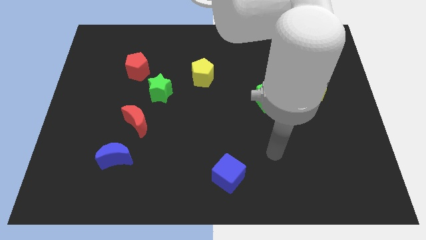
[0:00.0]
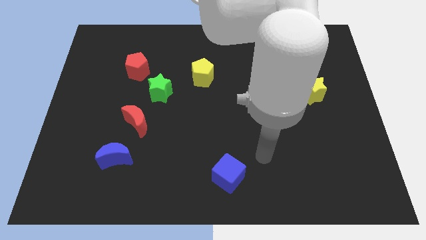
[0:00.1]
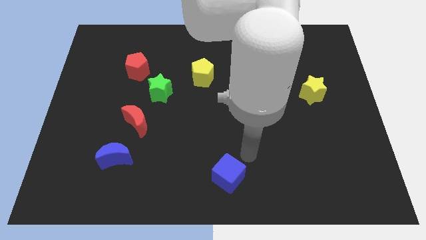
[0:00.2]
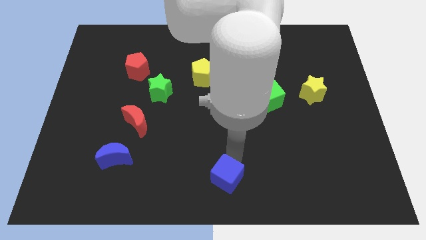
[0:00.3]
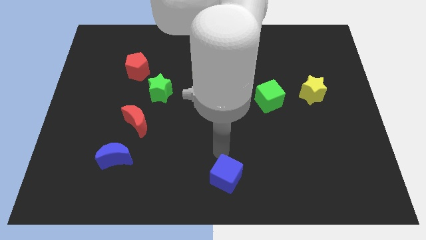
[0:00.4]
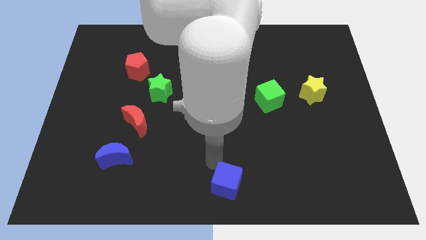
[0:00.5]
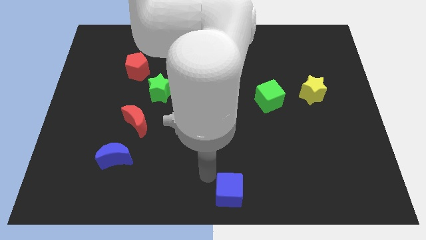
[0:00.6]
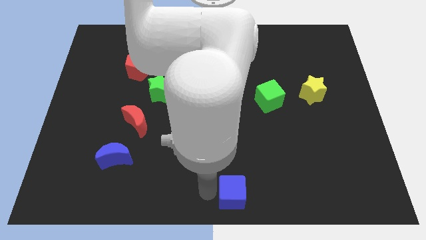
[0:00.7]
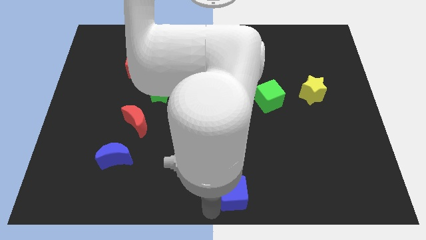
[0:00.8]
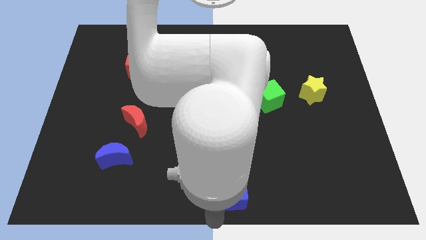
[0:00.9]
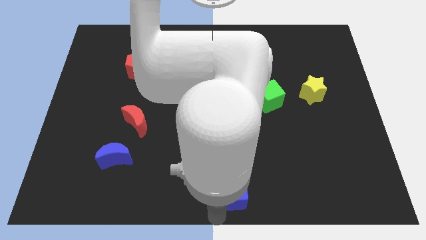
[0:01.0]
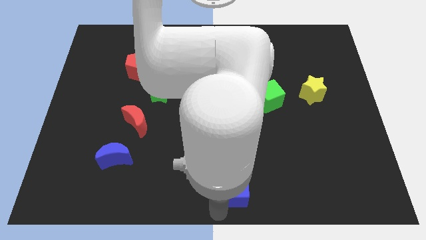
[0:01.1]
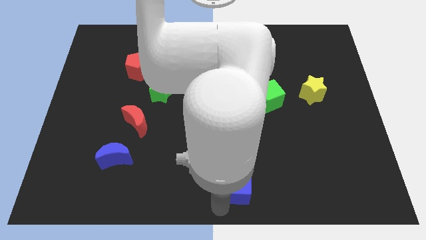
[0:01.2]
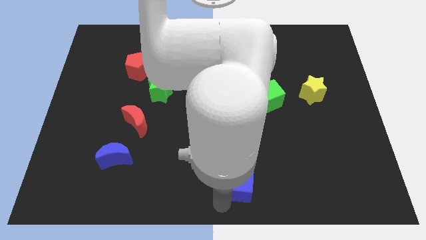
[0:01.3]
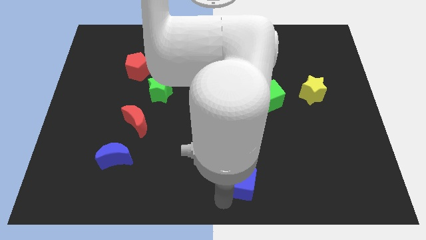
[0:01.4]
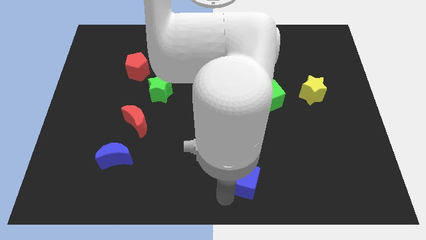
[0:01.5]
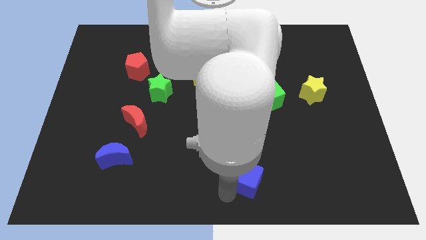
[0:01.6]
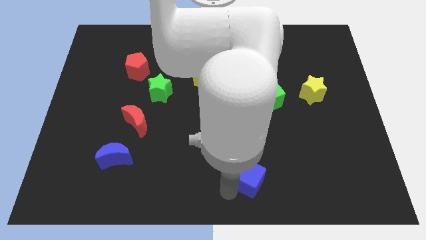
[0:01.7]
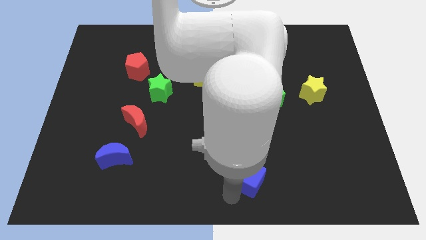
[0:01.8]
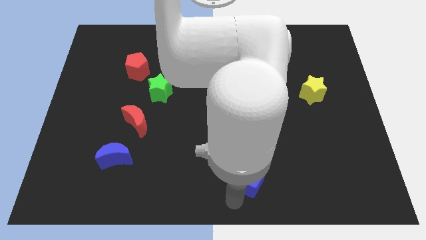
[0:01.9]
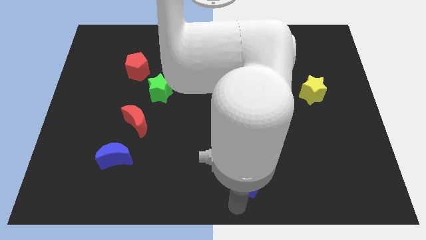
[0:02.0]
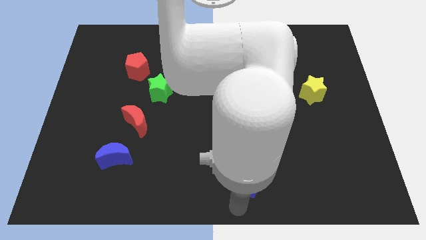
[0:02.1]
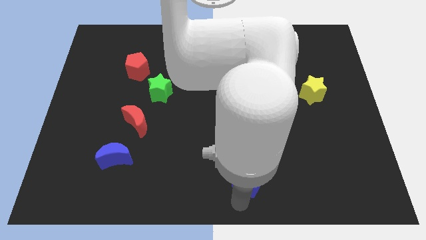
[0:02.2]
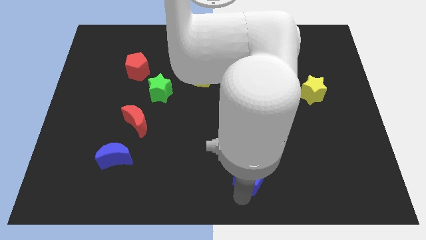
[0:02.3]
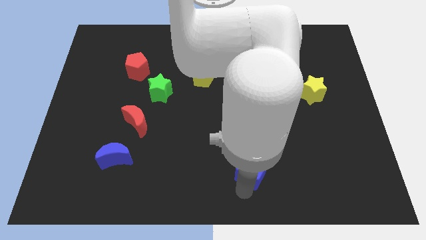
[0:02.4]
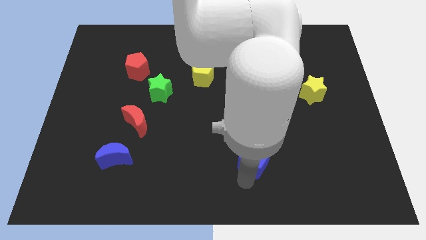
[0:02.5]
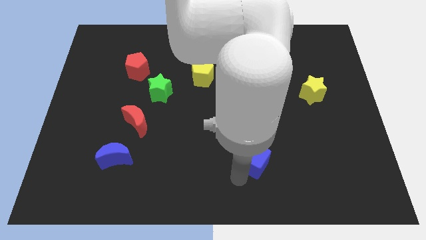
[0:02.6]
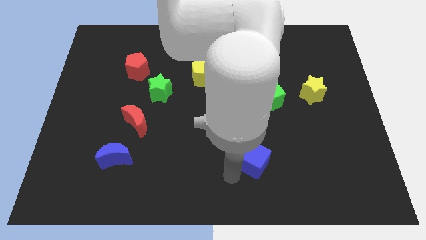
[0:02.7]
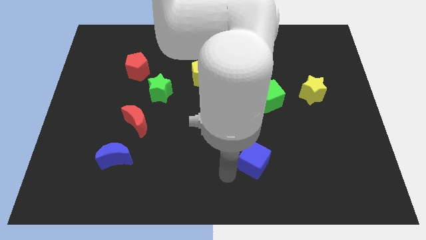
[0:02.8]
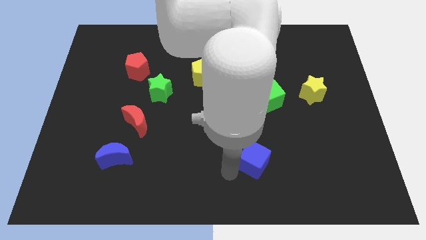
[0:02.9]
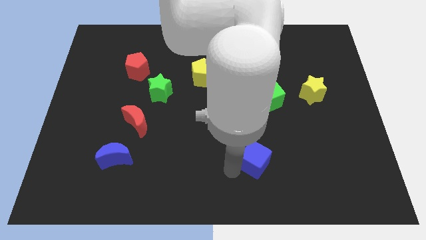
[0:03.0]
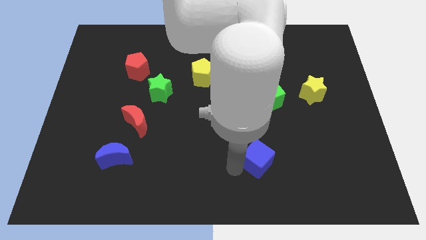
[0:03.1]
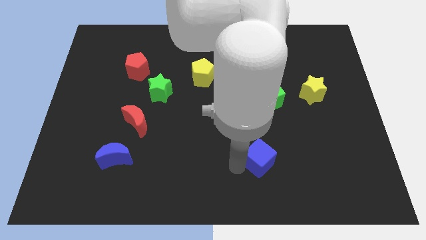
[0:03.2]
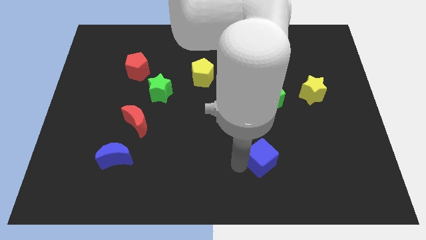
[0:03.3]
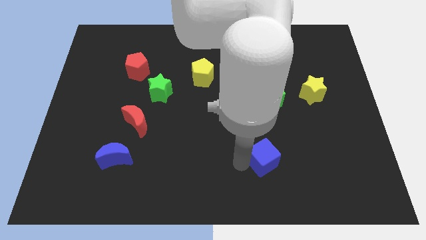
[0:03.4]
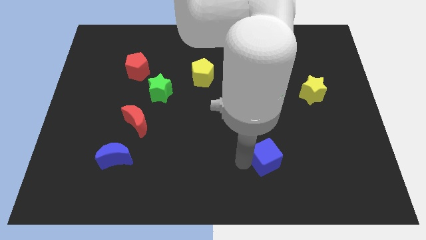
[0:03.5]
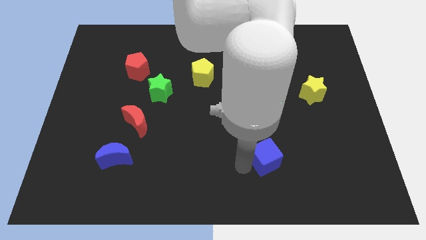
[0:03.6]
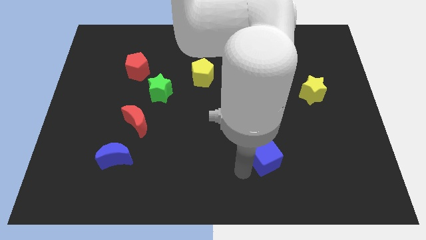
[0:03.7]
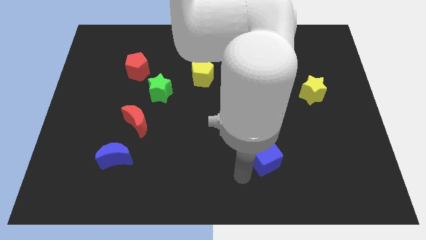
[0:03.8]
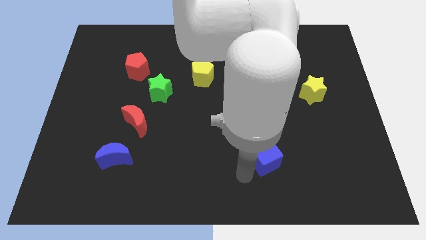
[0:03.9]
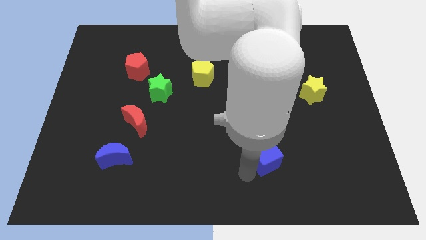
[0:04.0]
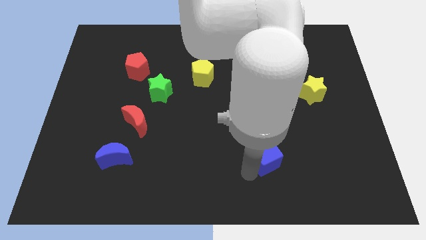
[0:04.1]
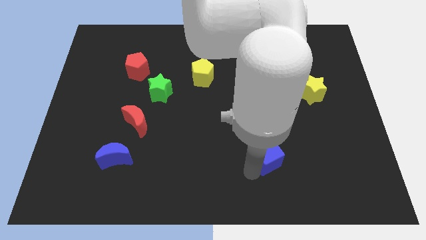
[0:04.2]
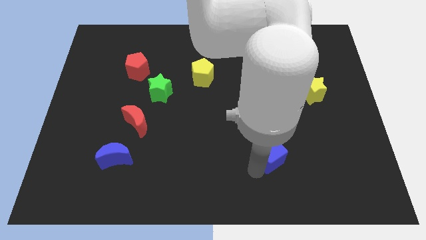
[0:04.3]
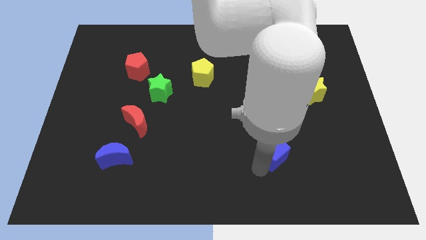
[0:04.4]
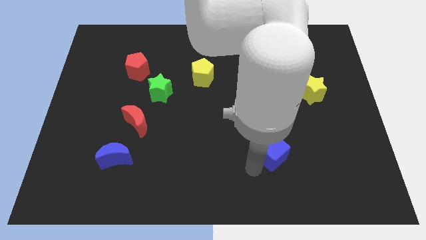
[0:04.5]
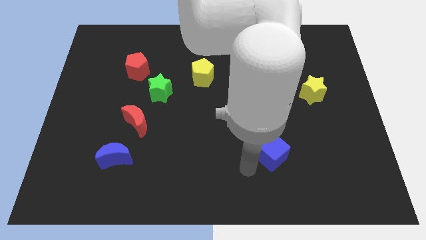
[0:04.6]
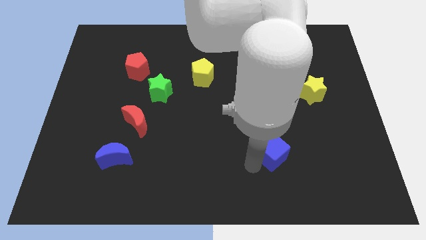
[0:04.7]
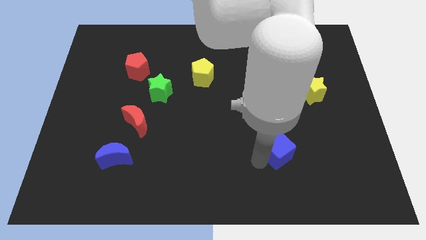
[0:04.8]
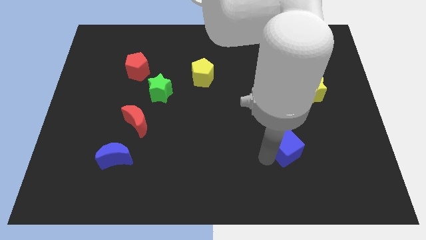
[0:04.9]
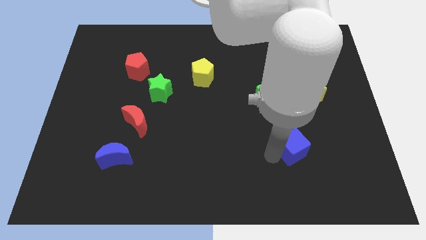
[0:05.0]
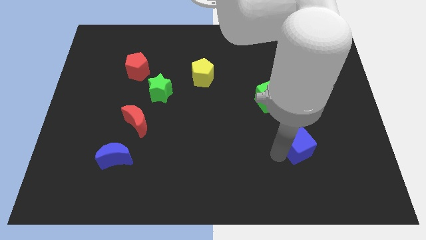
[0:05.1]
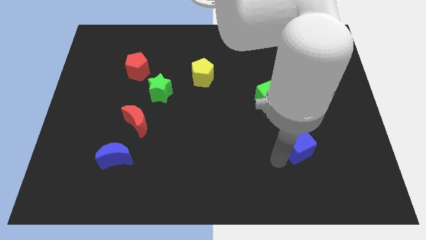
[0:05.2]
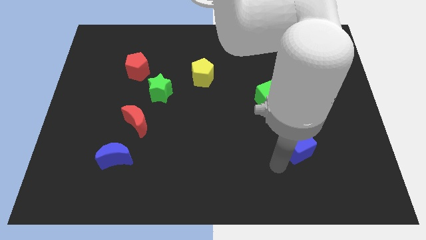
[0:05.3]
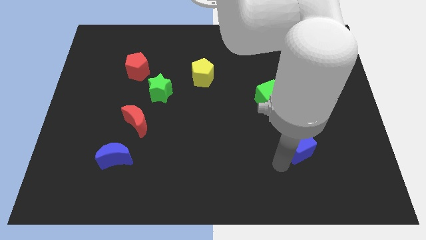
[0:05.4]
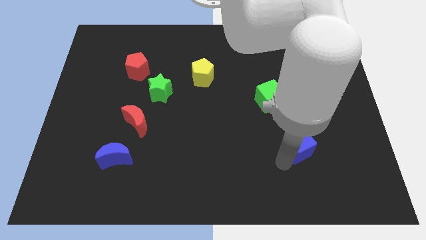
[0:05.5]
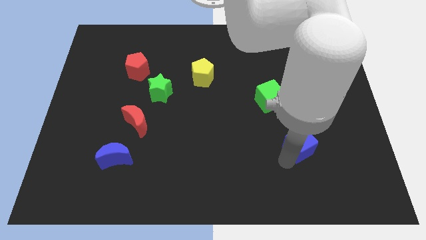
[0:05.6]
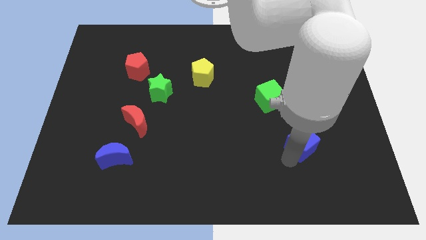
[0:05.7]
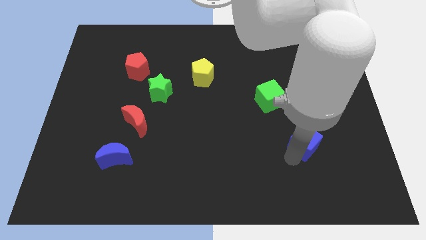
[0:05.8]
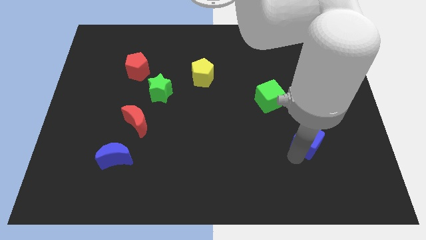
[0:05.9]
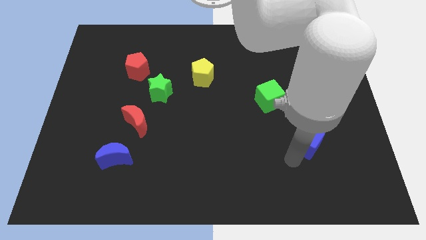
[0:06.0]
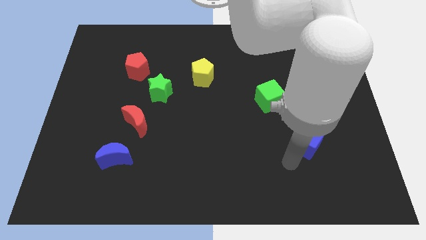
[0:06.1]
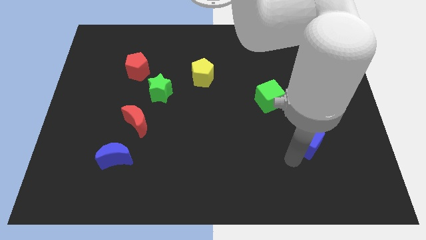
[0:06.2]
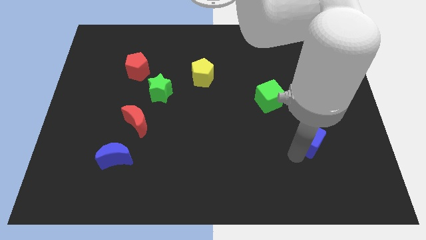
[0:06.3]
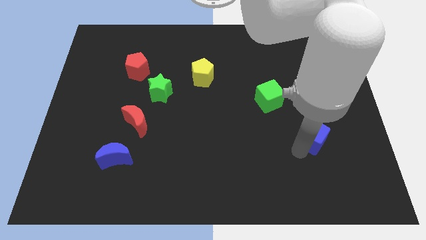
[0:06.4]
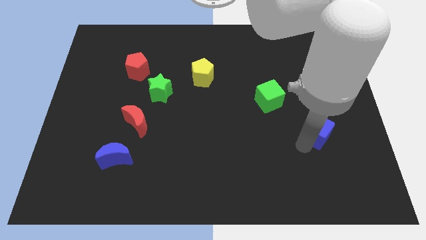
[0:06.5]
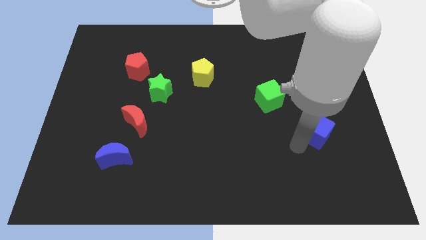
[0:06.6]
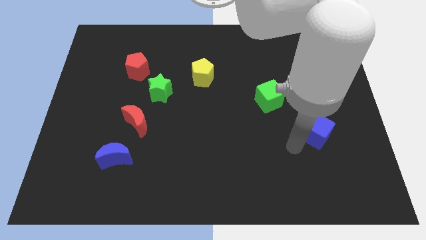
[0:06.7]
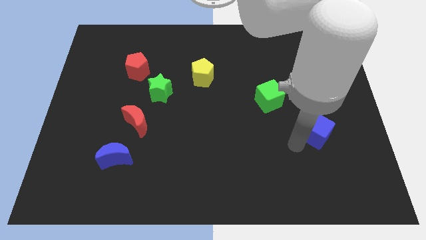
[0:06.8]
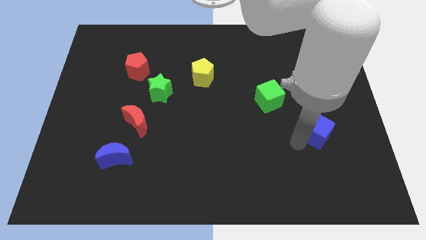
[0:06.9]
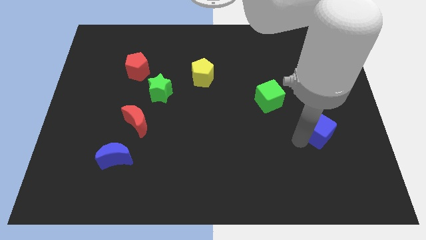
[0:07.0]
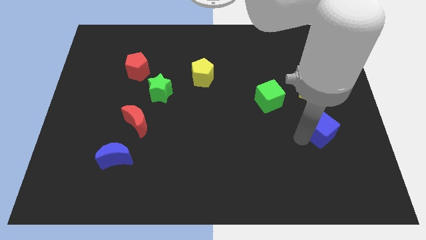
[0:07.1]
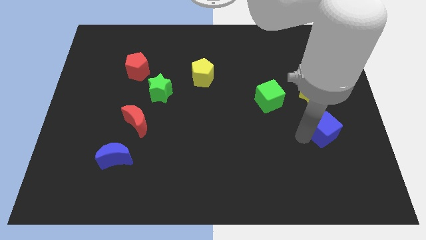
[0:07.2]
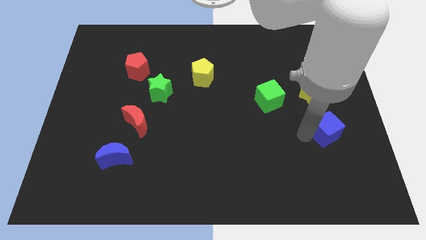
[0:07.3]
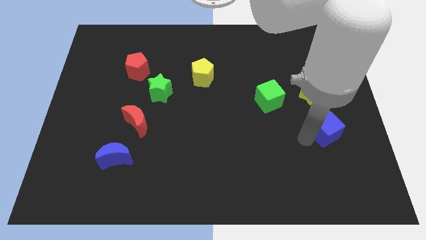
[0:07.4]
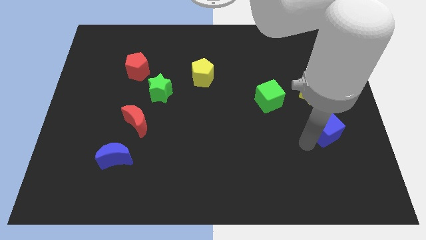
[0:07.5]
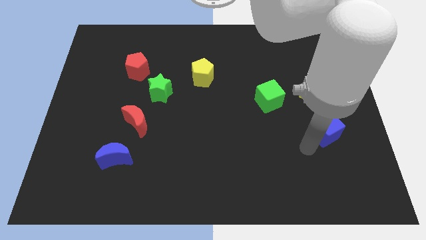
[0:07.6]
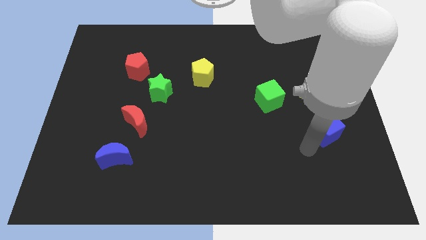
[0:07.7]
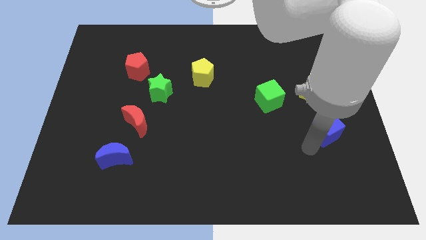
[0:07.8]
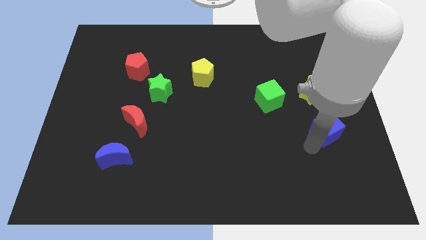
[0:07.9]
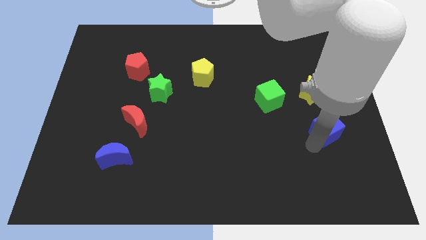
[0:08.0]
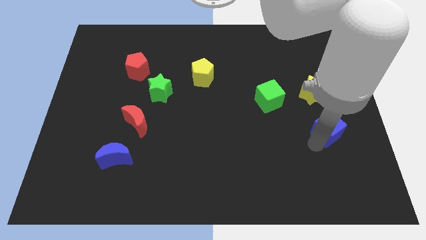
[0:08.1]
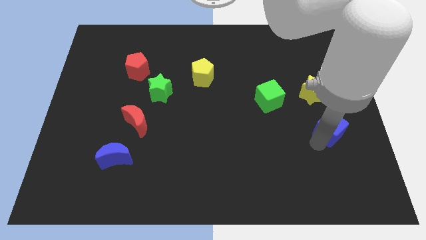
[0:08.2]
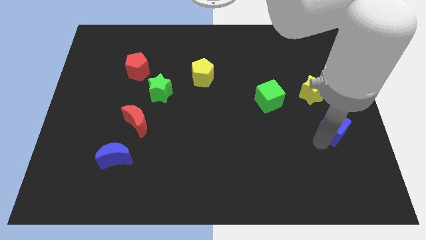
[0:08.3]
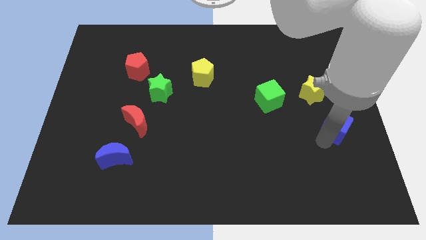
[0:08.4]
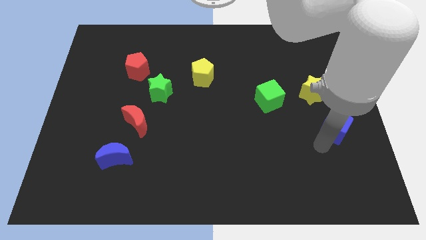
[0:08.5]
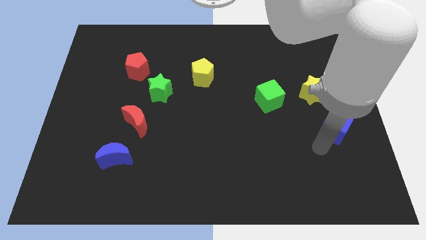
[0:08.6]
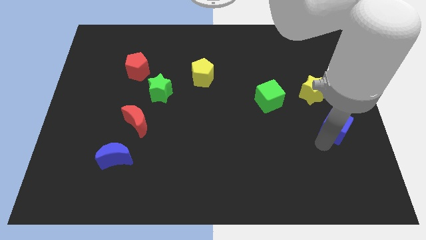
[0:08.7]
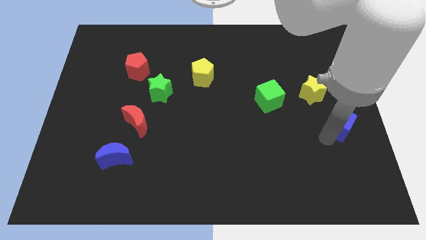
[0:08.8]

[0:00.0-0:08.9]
put the blue cube to the right side of the board
